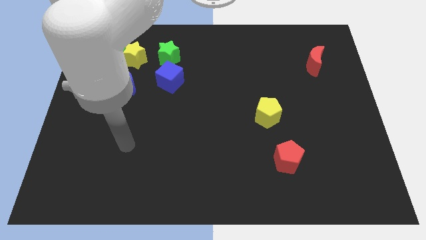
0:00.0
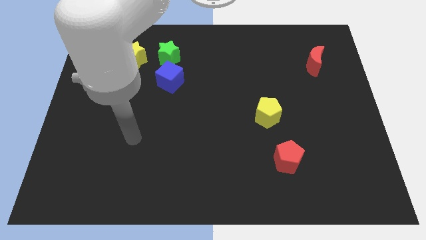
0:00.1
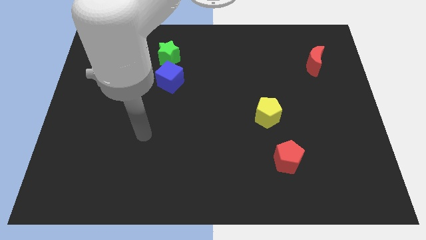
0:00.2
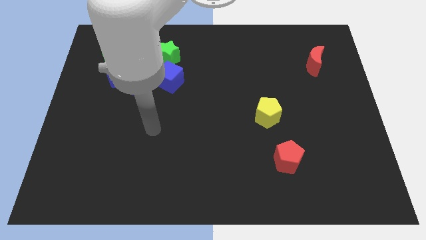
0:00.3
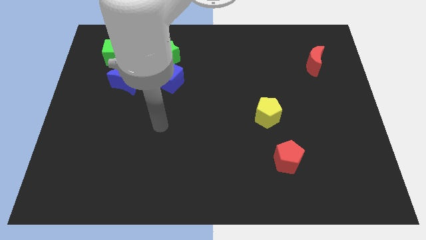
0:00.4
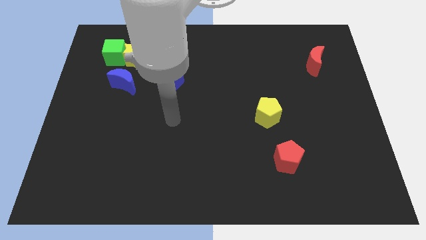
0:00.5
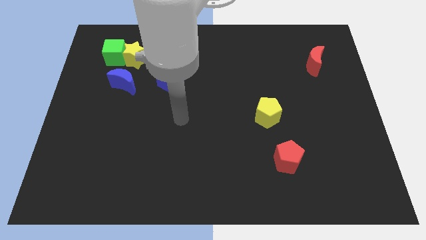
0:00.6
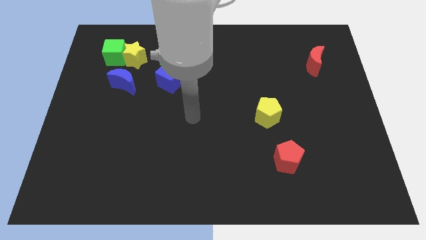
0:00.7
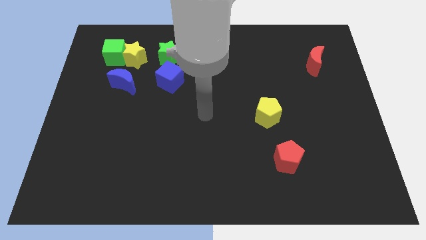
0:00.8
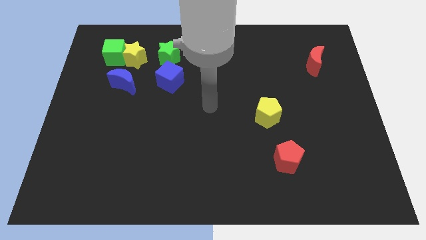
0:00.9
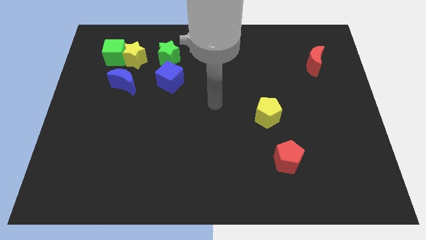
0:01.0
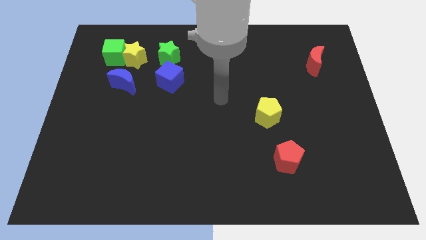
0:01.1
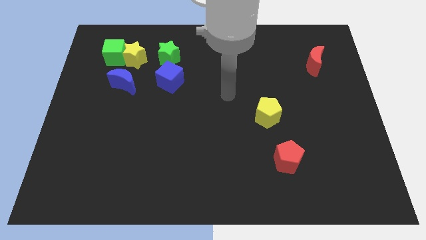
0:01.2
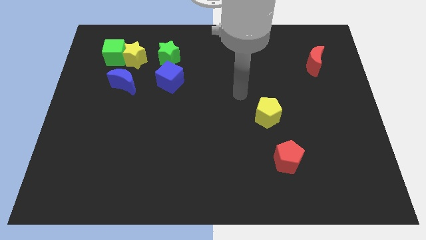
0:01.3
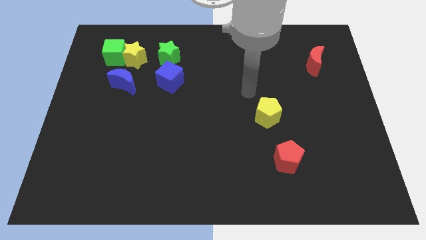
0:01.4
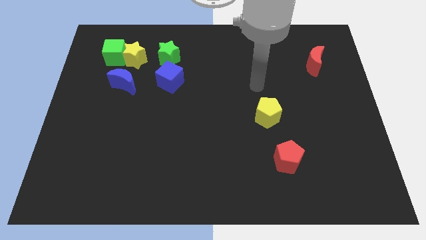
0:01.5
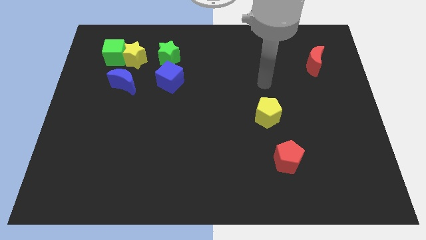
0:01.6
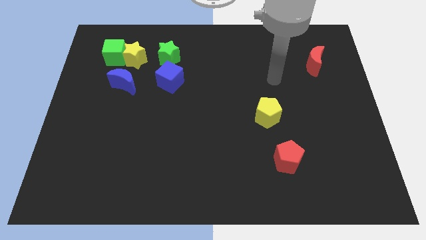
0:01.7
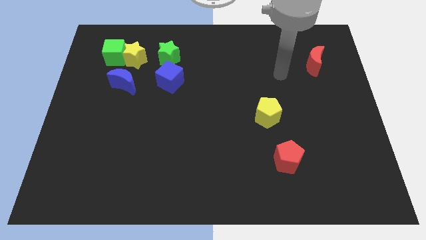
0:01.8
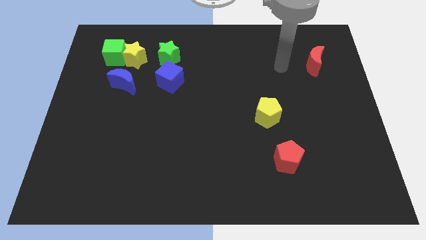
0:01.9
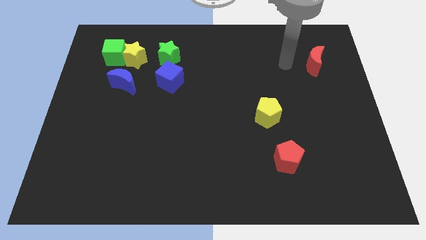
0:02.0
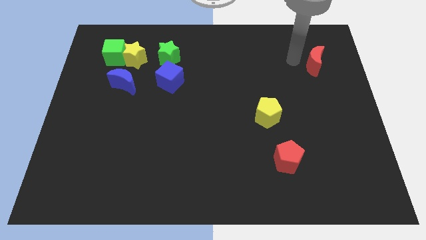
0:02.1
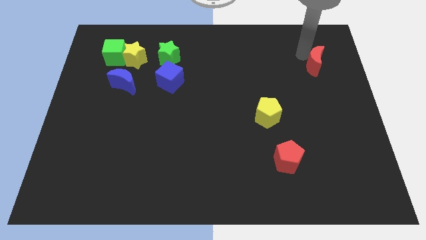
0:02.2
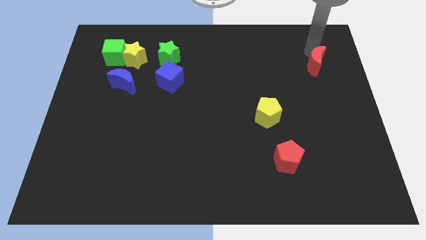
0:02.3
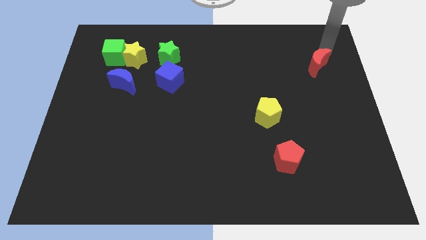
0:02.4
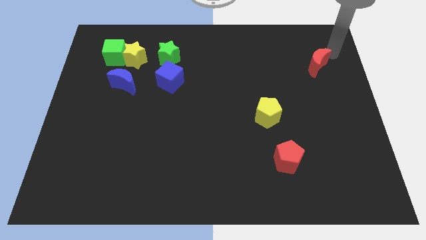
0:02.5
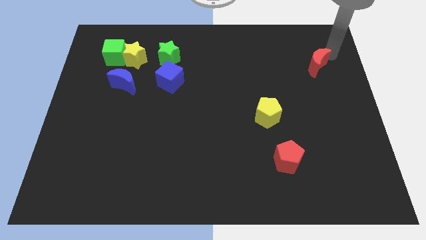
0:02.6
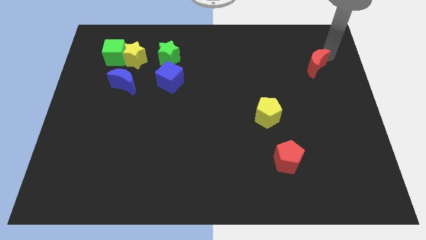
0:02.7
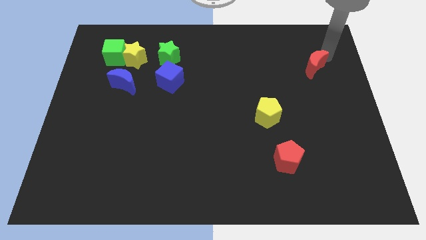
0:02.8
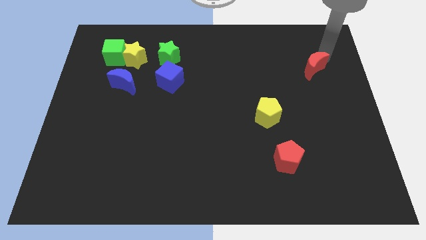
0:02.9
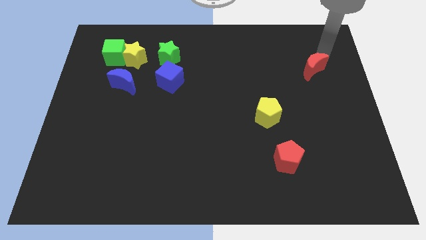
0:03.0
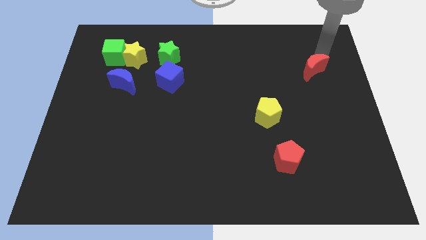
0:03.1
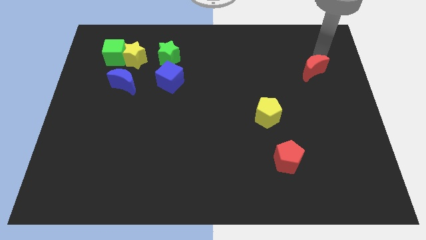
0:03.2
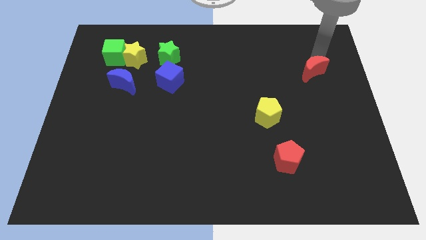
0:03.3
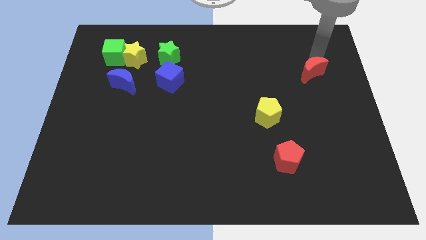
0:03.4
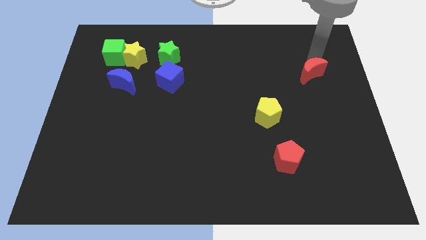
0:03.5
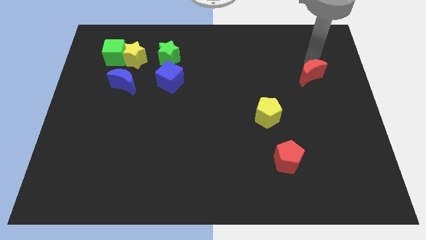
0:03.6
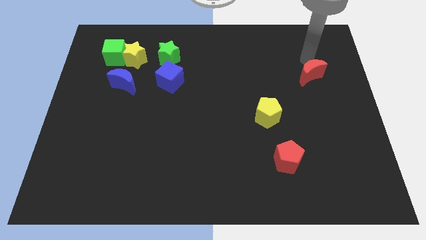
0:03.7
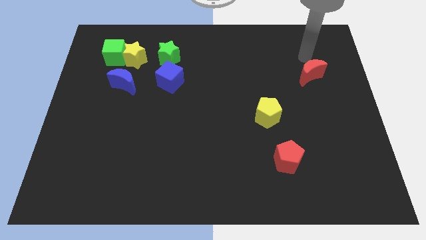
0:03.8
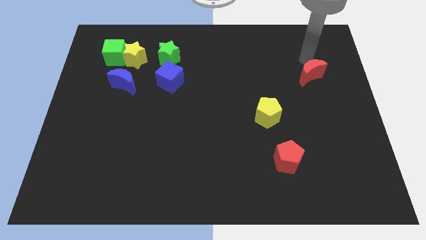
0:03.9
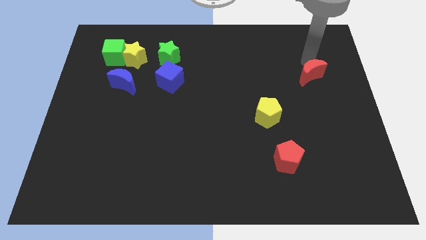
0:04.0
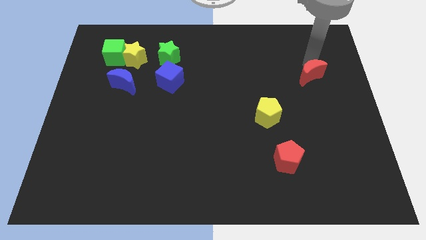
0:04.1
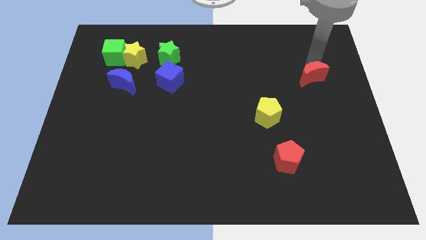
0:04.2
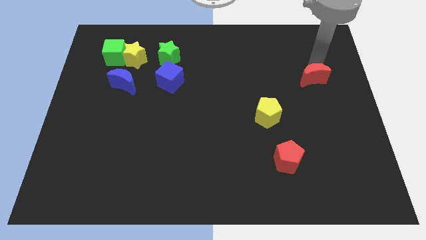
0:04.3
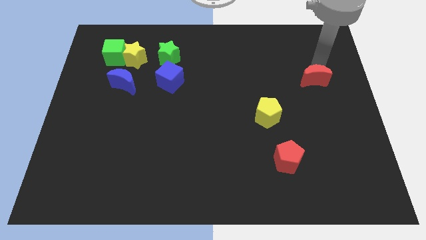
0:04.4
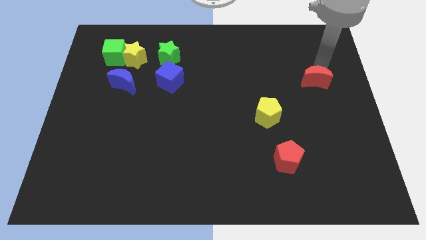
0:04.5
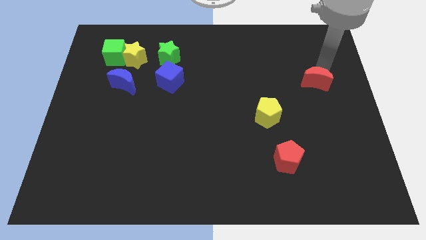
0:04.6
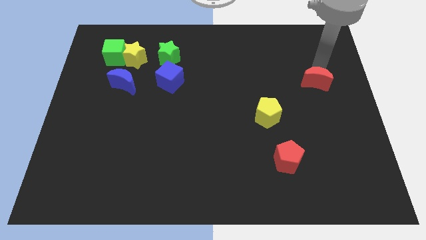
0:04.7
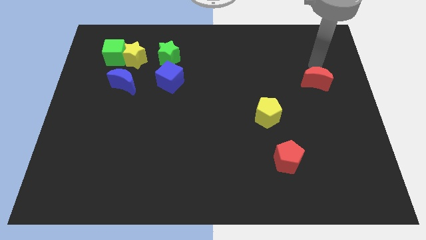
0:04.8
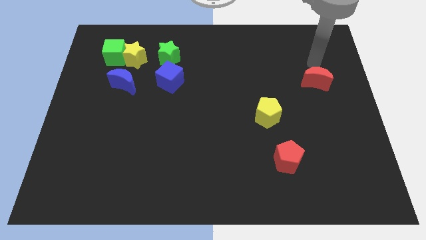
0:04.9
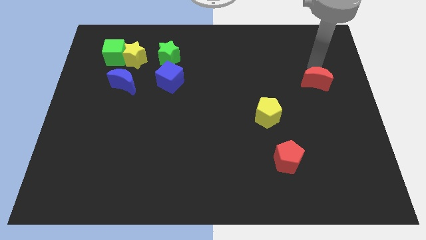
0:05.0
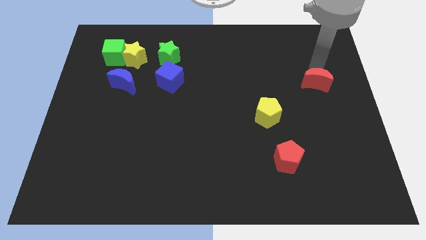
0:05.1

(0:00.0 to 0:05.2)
move the red moon down slightly

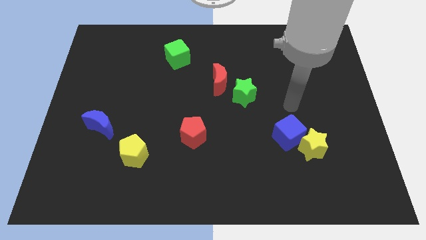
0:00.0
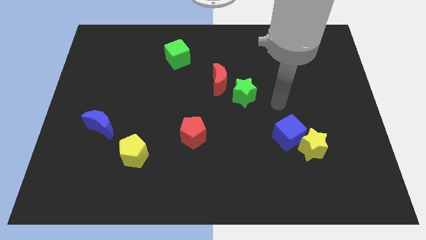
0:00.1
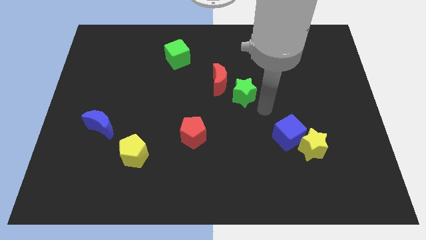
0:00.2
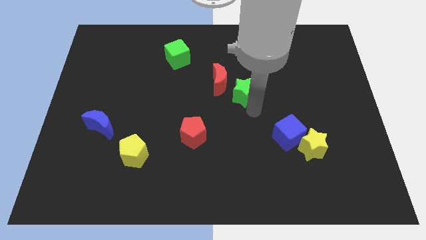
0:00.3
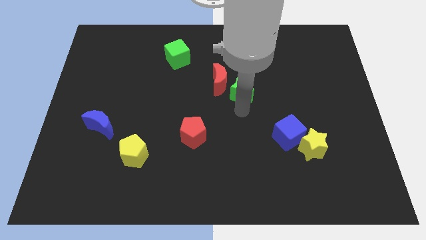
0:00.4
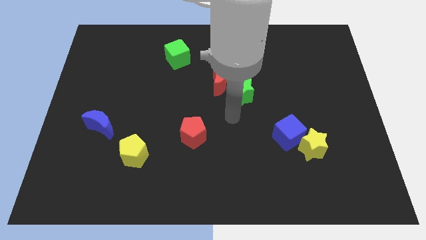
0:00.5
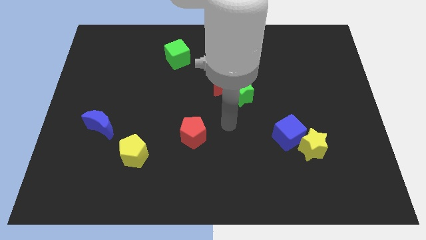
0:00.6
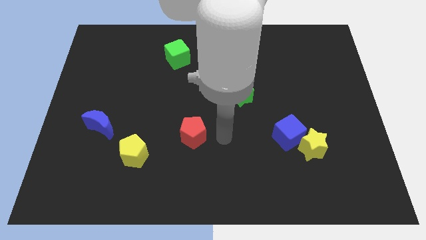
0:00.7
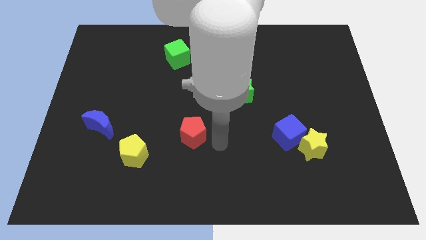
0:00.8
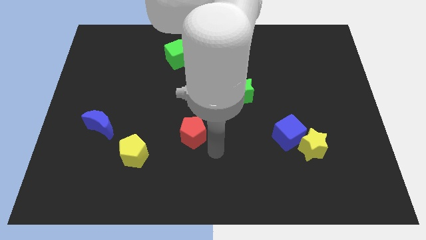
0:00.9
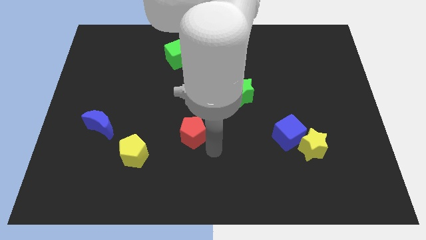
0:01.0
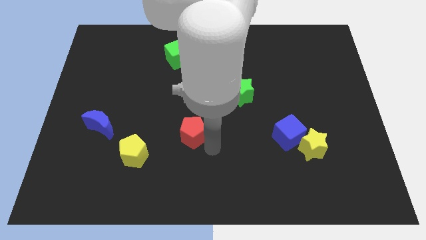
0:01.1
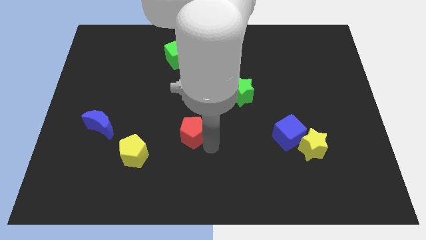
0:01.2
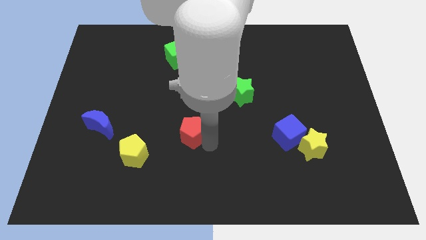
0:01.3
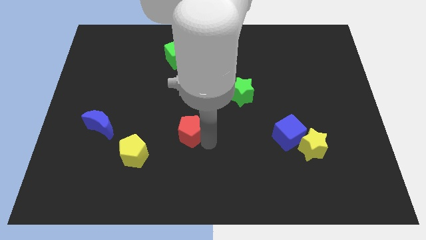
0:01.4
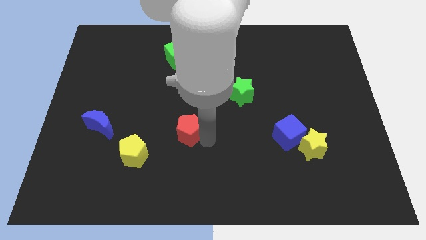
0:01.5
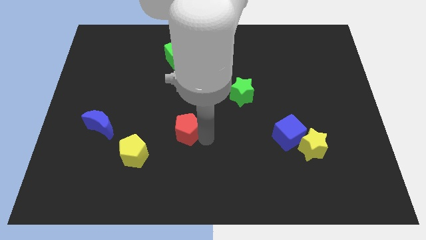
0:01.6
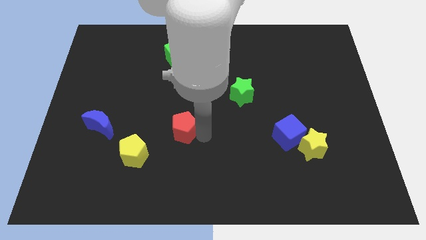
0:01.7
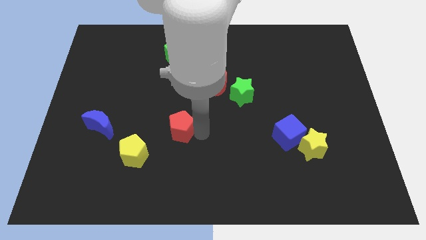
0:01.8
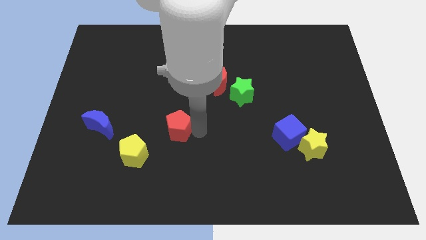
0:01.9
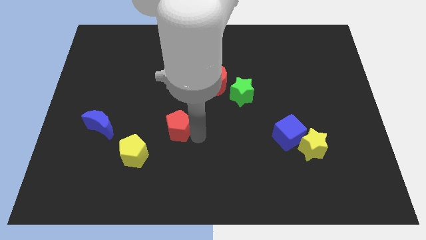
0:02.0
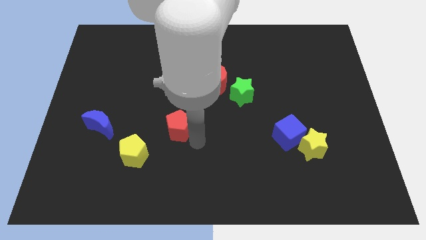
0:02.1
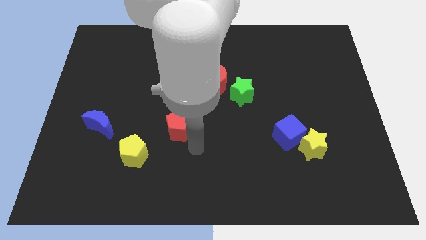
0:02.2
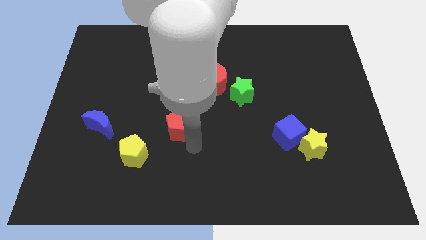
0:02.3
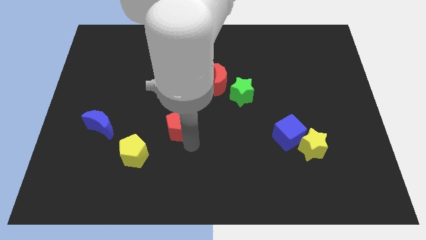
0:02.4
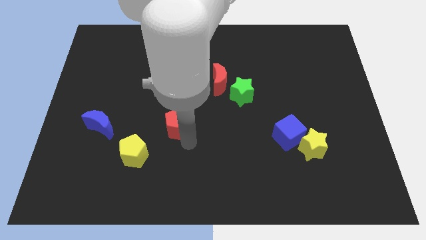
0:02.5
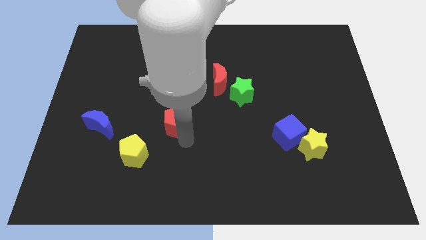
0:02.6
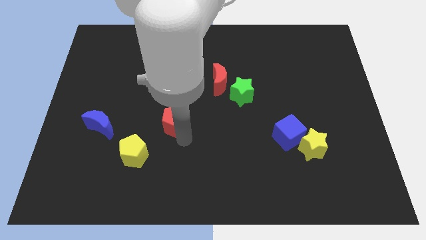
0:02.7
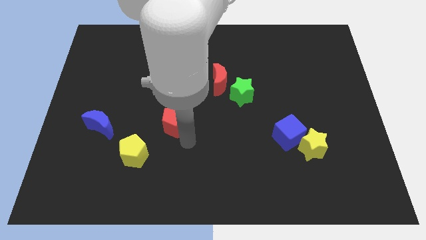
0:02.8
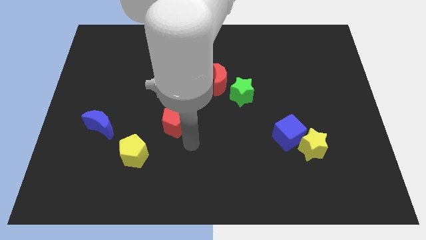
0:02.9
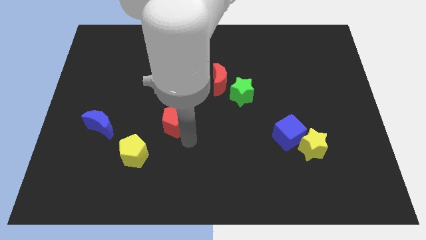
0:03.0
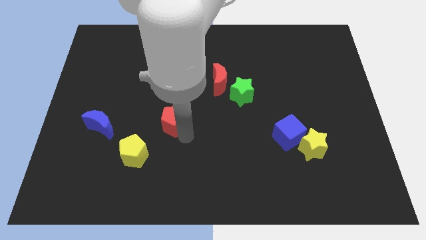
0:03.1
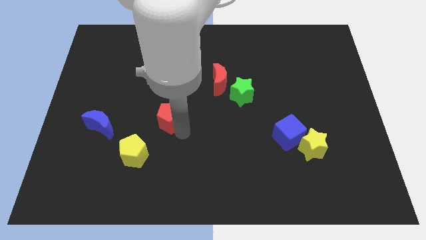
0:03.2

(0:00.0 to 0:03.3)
push the red pentagon upwards and left diagonally somewhat
